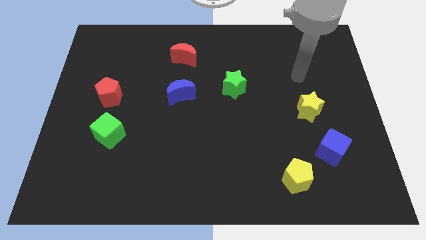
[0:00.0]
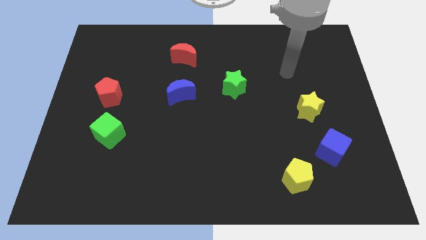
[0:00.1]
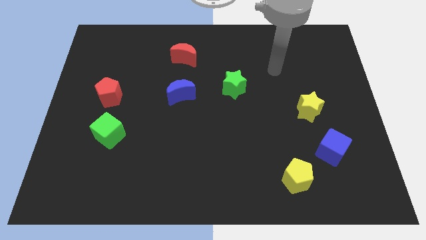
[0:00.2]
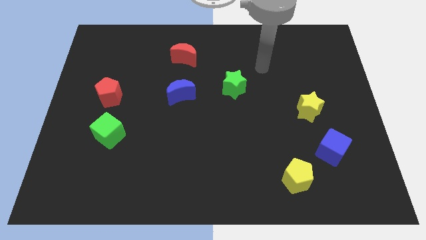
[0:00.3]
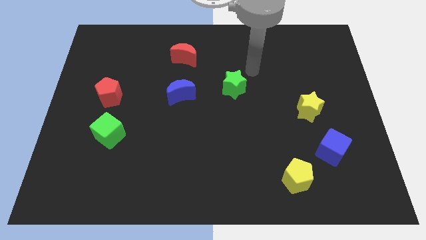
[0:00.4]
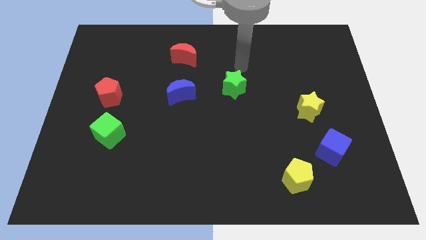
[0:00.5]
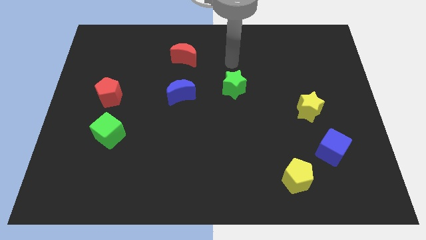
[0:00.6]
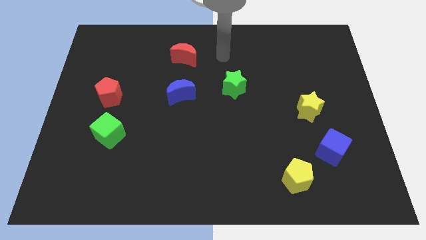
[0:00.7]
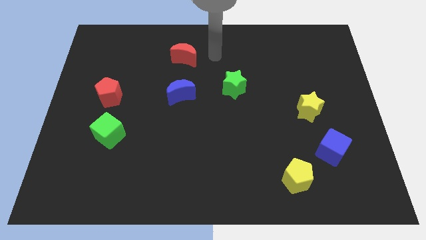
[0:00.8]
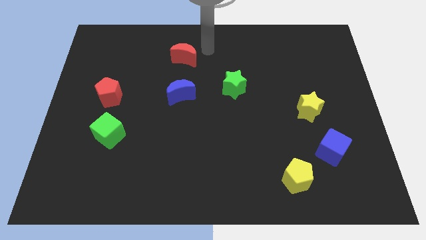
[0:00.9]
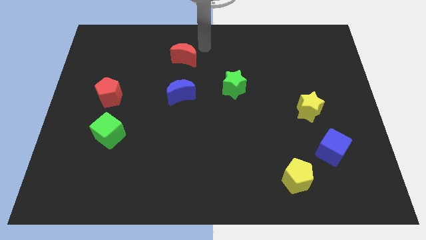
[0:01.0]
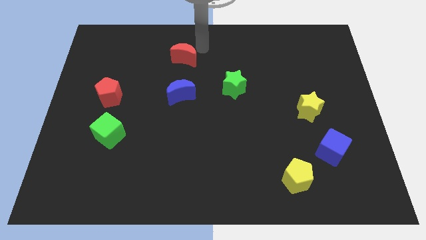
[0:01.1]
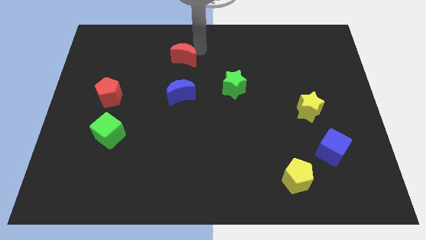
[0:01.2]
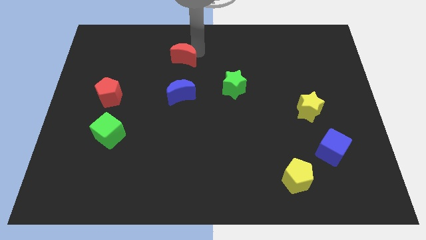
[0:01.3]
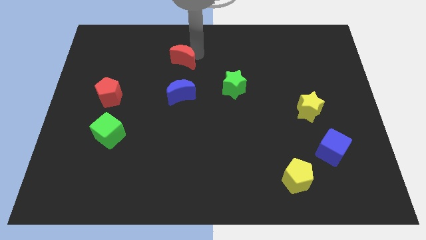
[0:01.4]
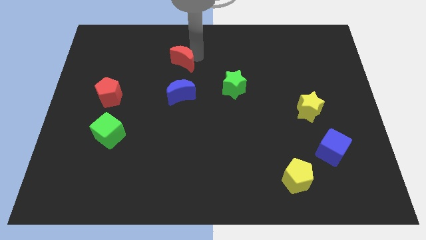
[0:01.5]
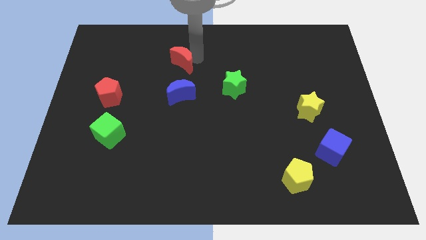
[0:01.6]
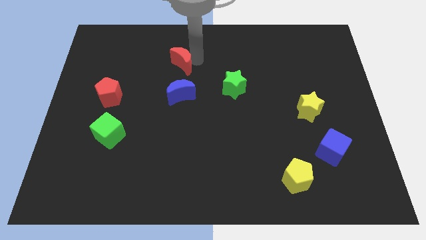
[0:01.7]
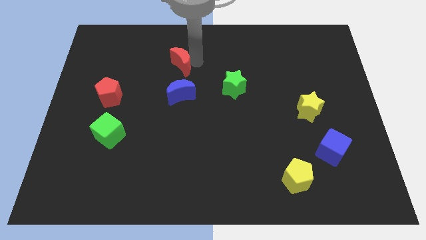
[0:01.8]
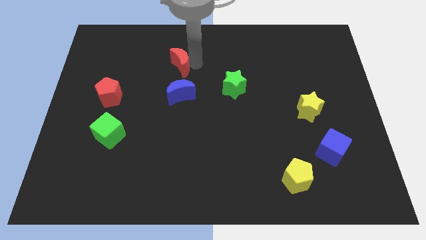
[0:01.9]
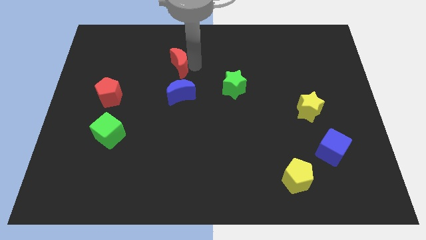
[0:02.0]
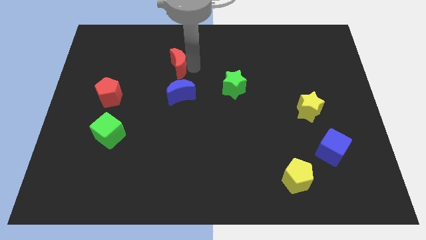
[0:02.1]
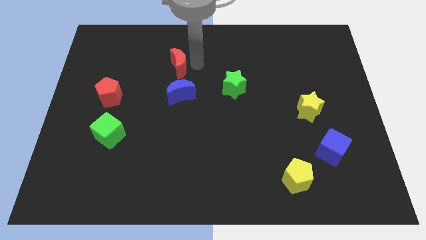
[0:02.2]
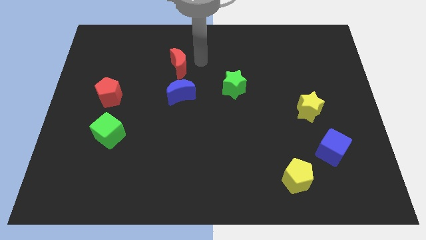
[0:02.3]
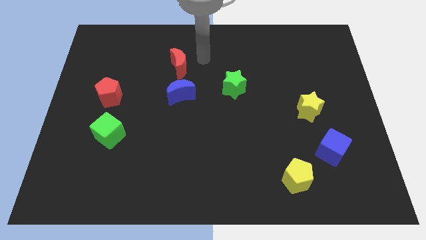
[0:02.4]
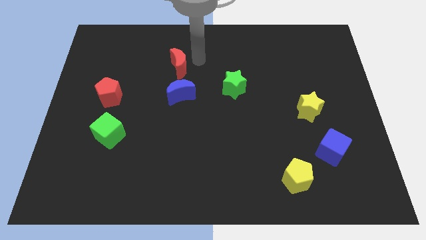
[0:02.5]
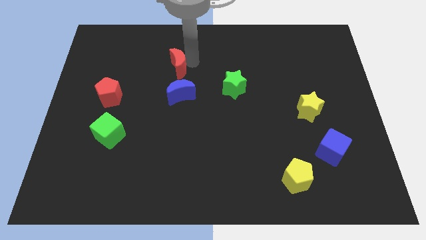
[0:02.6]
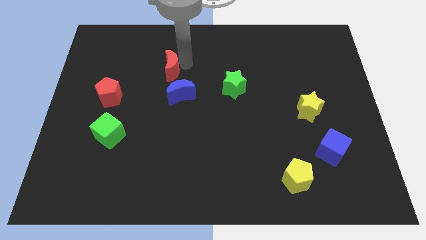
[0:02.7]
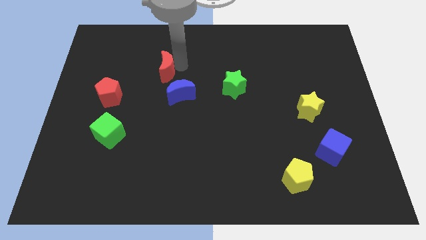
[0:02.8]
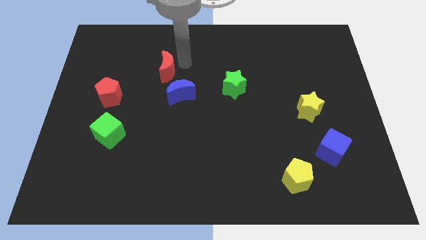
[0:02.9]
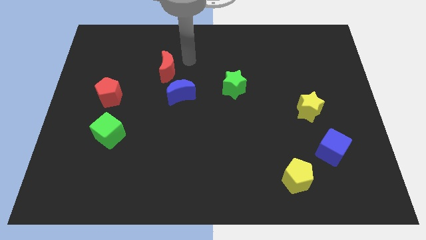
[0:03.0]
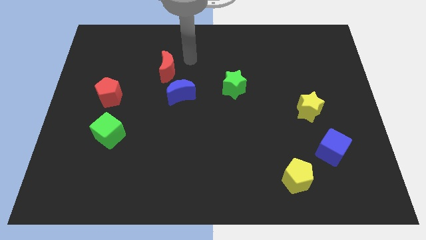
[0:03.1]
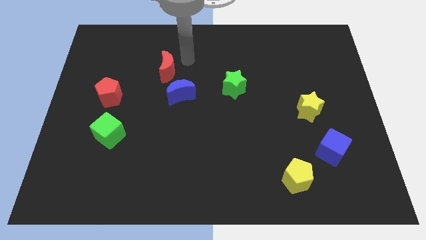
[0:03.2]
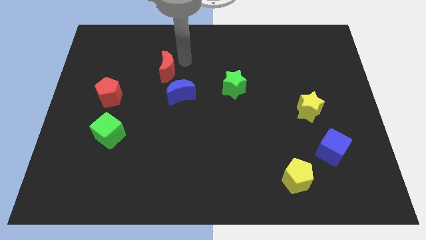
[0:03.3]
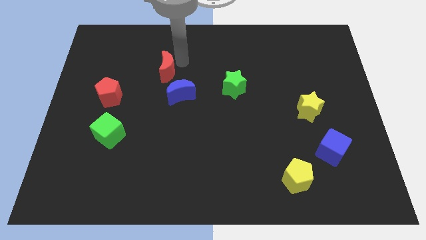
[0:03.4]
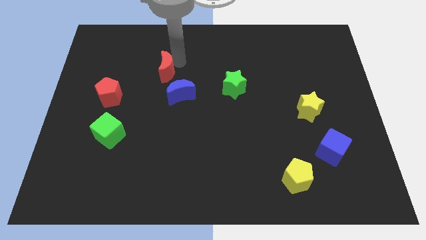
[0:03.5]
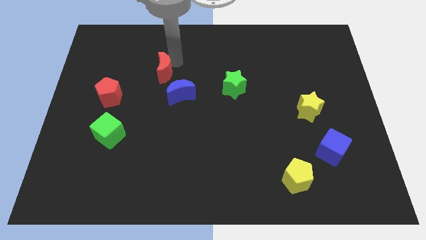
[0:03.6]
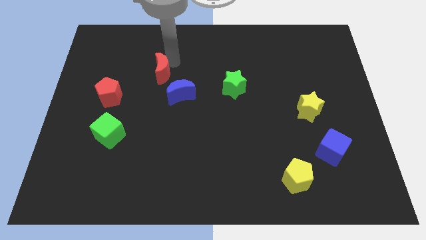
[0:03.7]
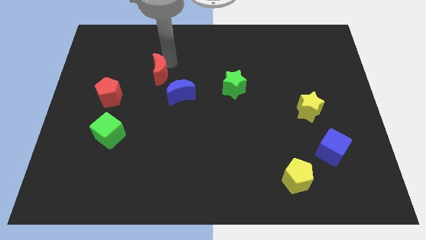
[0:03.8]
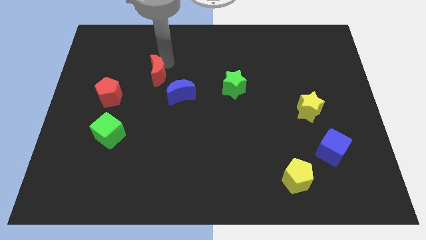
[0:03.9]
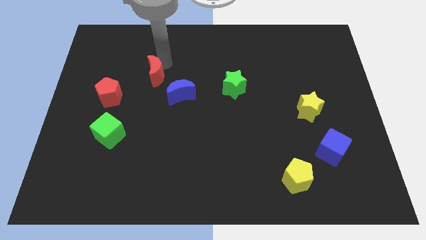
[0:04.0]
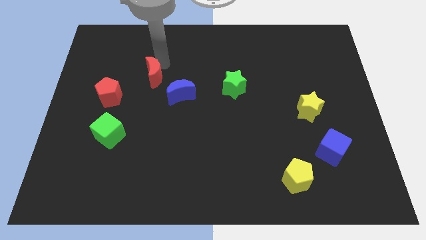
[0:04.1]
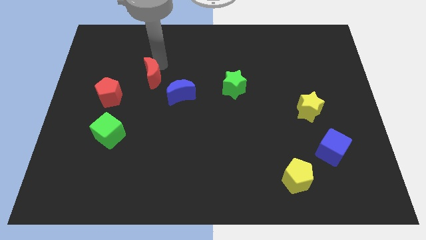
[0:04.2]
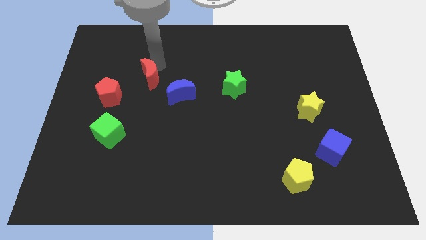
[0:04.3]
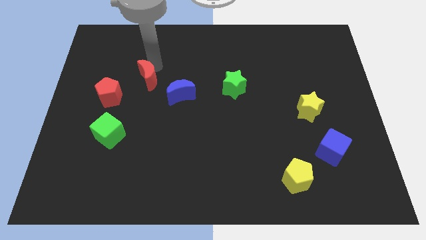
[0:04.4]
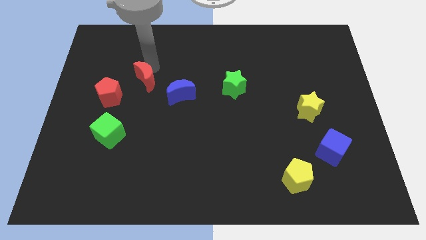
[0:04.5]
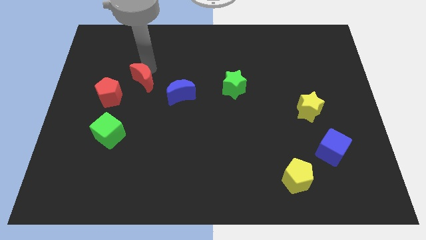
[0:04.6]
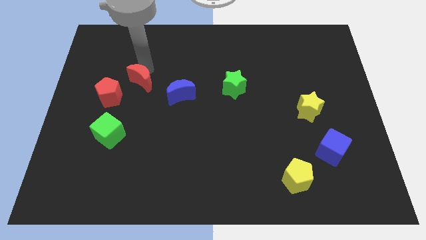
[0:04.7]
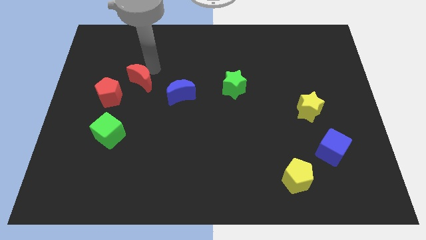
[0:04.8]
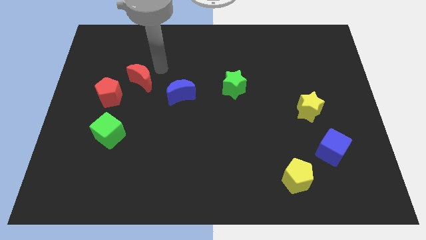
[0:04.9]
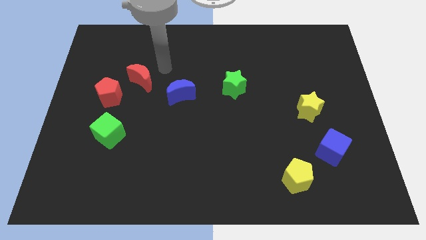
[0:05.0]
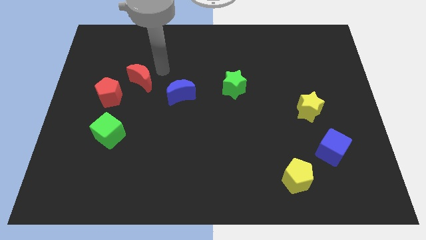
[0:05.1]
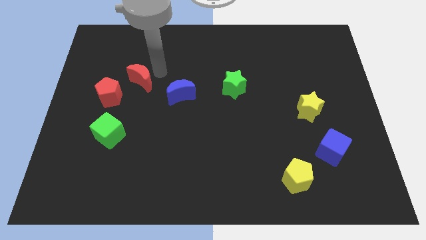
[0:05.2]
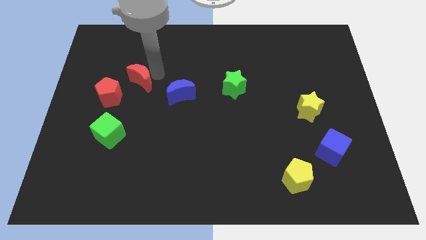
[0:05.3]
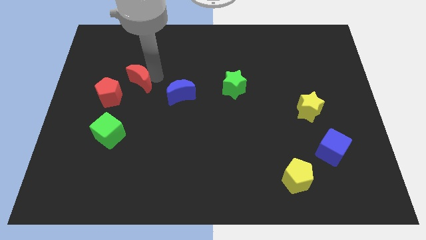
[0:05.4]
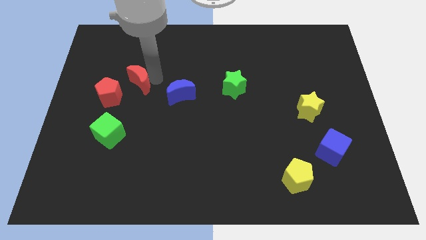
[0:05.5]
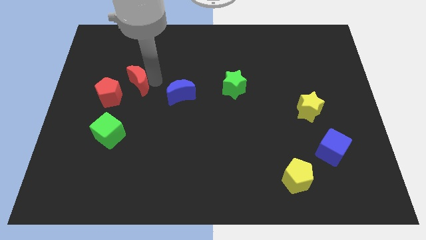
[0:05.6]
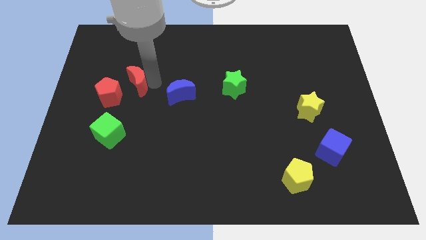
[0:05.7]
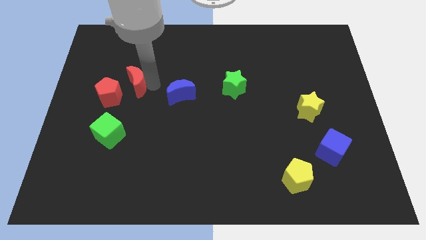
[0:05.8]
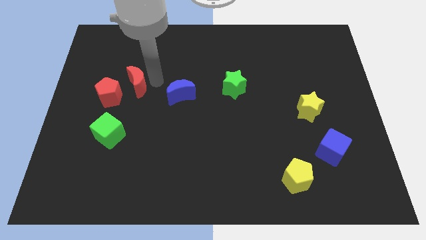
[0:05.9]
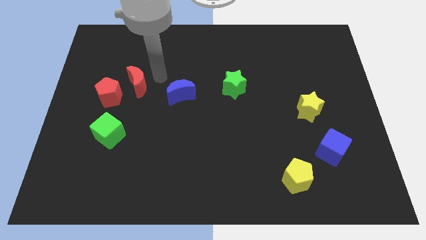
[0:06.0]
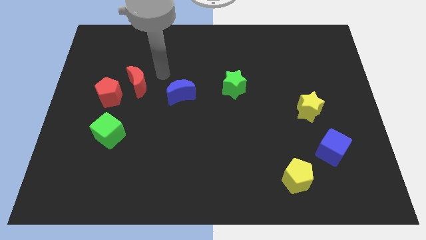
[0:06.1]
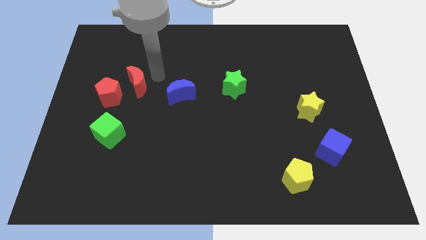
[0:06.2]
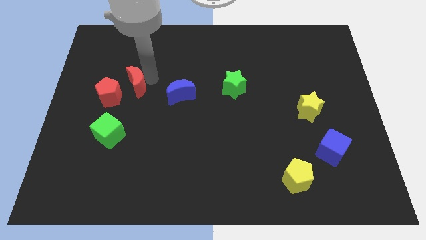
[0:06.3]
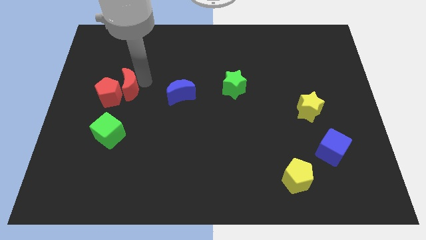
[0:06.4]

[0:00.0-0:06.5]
slide the red moon next to the red pentagon

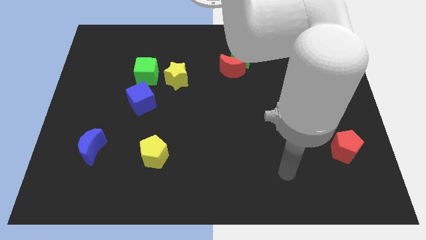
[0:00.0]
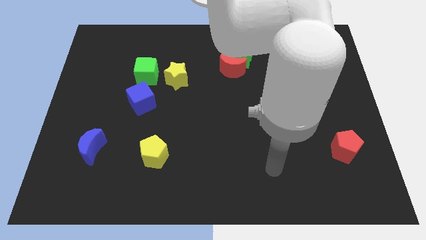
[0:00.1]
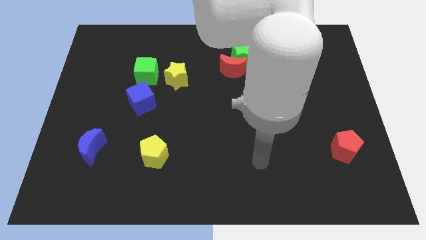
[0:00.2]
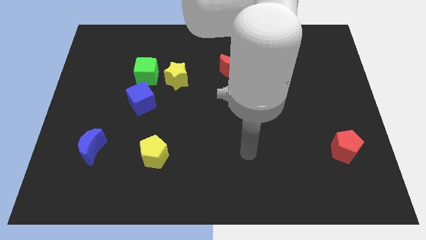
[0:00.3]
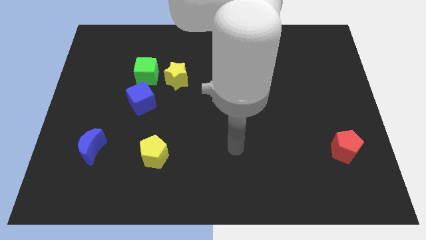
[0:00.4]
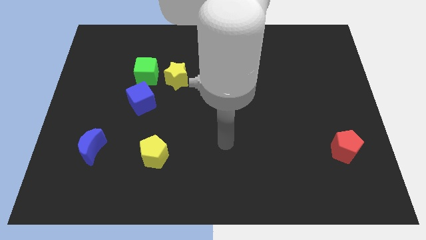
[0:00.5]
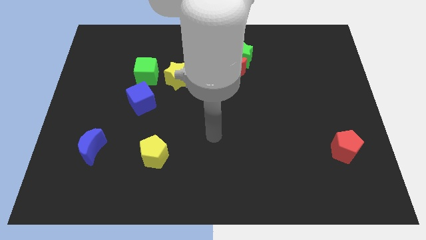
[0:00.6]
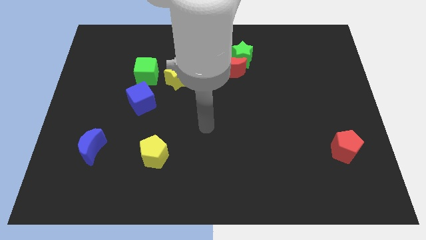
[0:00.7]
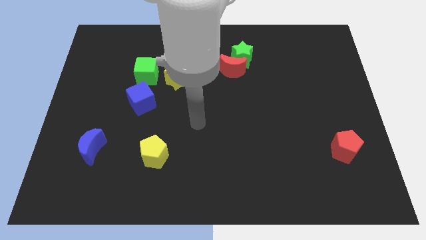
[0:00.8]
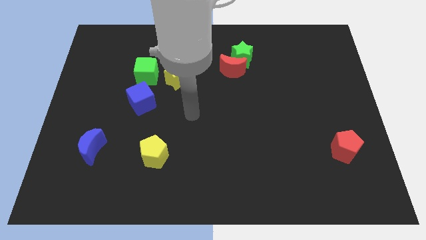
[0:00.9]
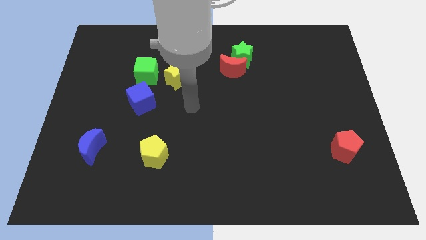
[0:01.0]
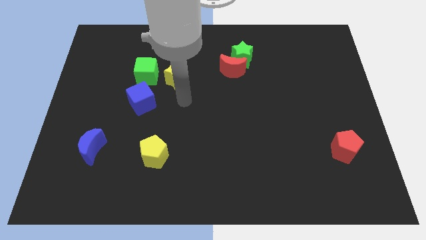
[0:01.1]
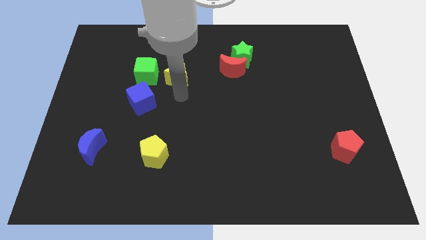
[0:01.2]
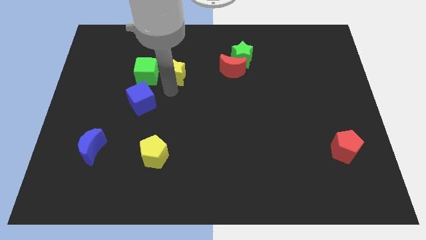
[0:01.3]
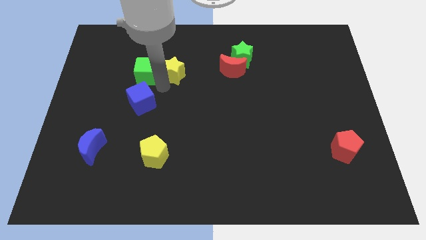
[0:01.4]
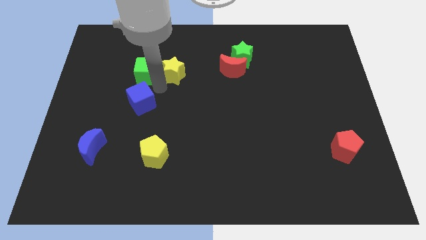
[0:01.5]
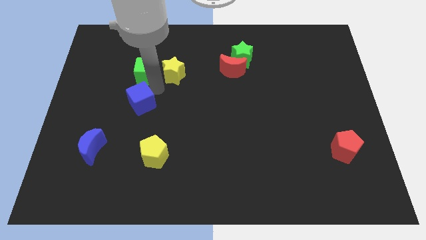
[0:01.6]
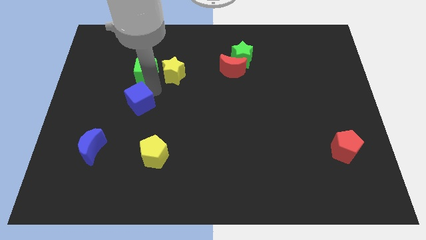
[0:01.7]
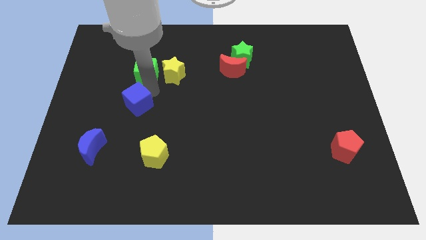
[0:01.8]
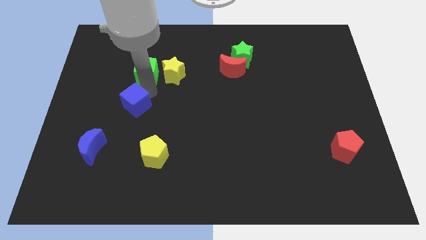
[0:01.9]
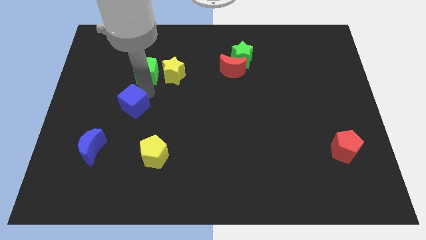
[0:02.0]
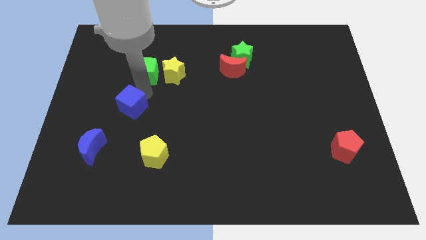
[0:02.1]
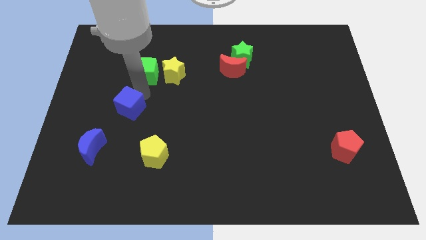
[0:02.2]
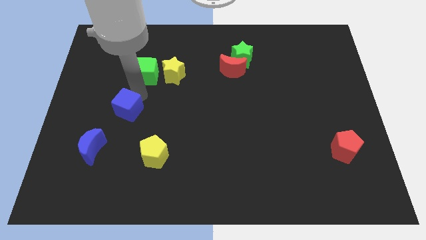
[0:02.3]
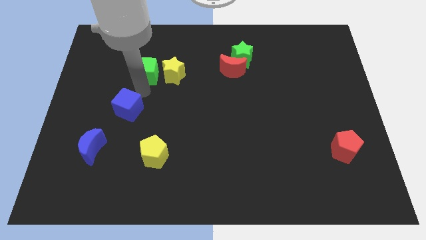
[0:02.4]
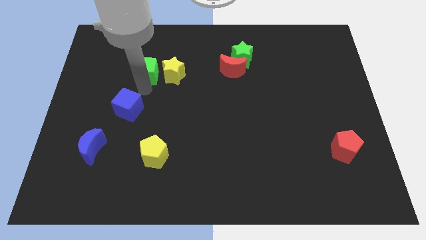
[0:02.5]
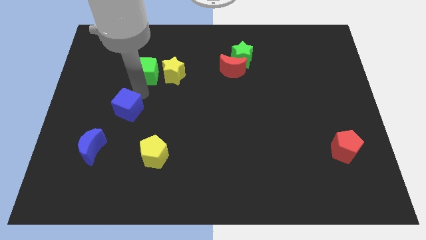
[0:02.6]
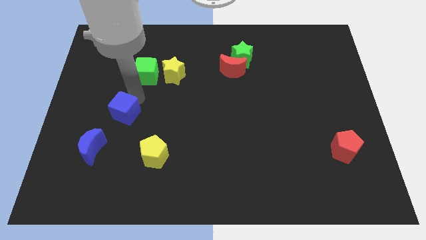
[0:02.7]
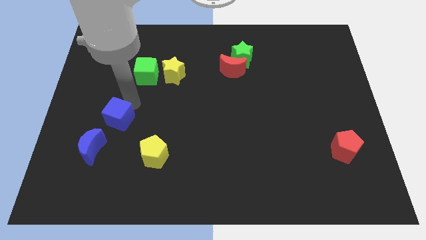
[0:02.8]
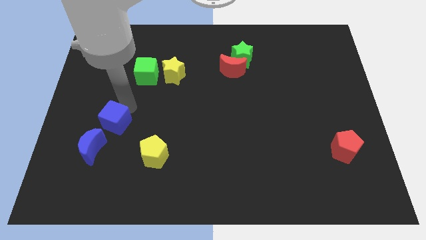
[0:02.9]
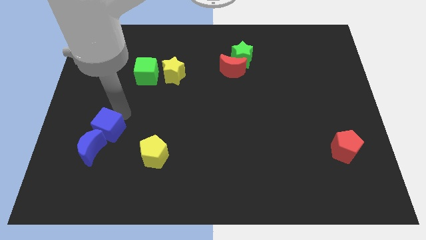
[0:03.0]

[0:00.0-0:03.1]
push the blue cube close to the blue moon
